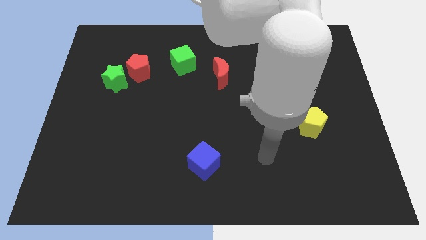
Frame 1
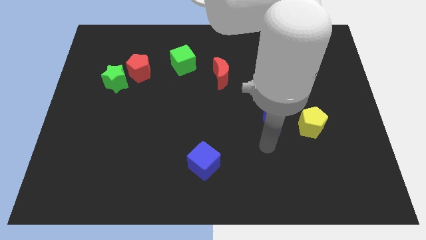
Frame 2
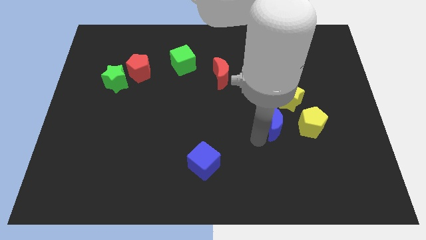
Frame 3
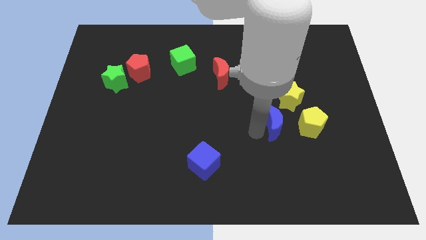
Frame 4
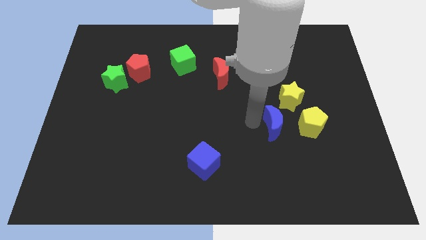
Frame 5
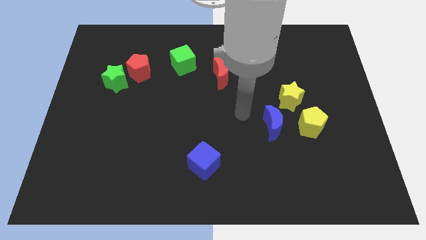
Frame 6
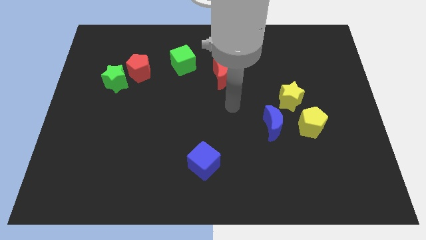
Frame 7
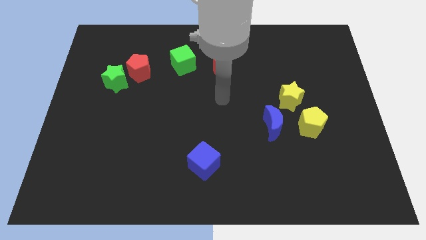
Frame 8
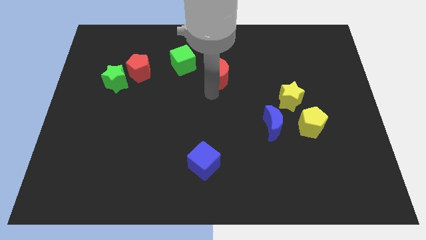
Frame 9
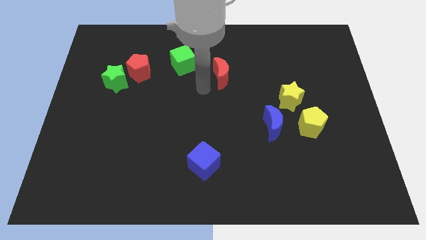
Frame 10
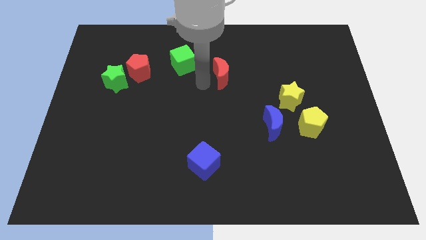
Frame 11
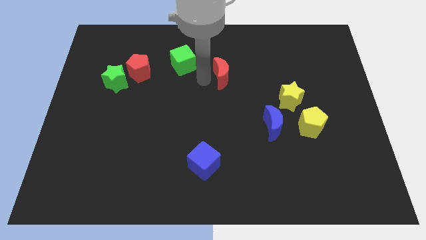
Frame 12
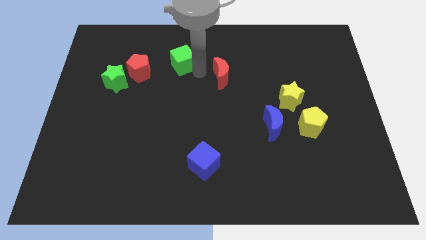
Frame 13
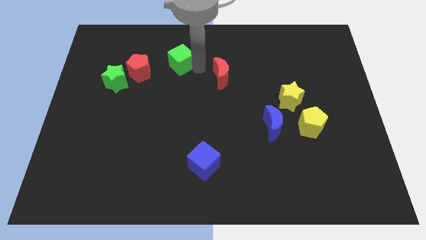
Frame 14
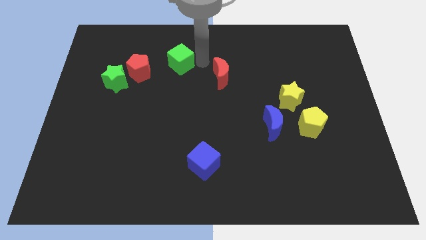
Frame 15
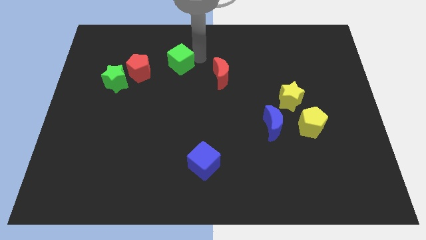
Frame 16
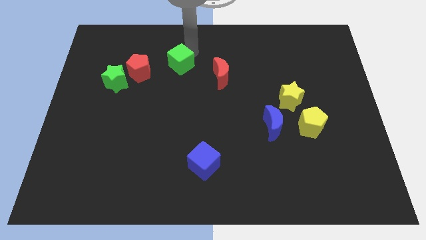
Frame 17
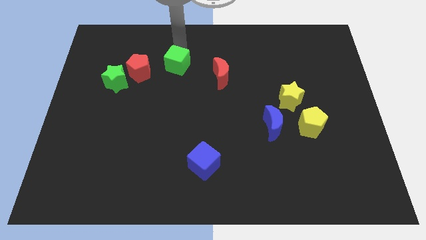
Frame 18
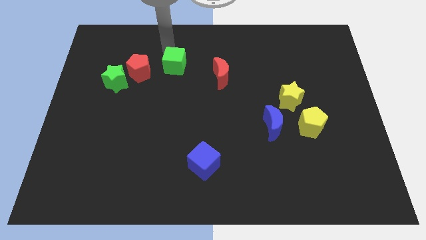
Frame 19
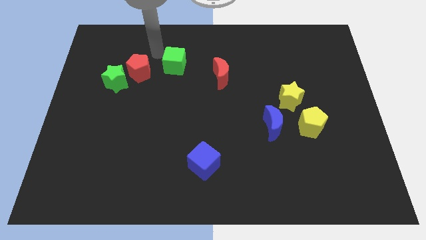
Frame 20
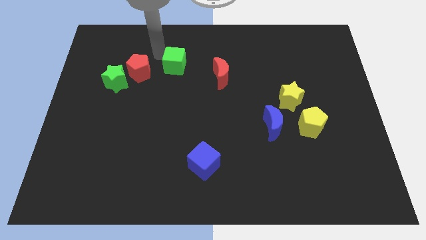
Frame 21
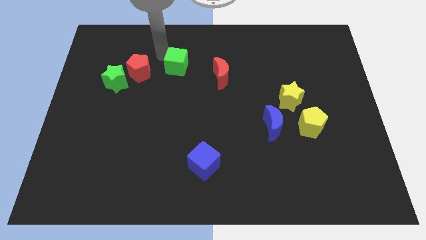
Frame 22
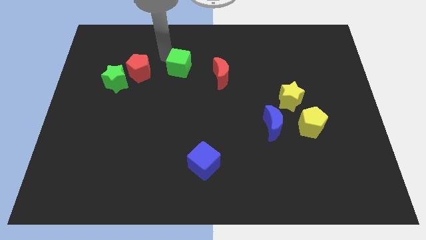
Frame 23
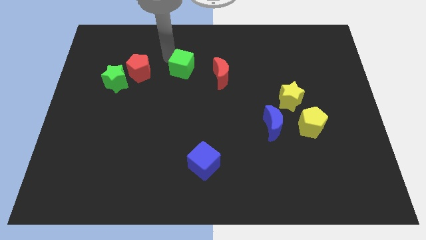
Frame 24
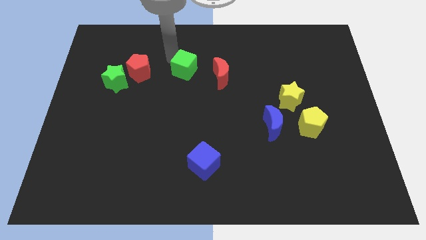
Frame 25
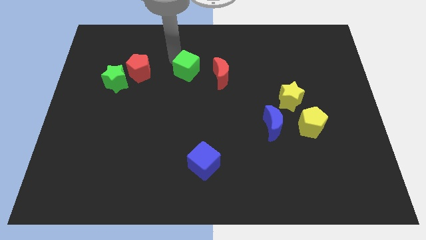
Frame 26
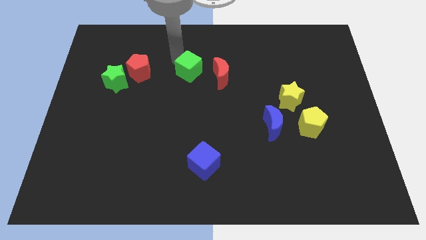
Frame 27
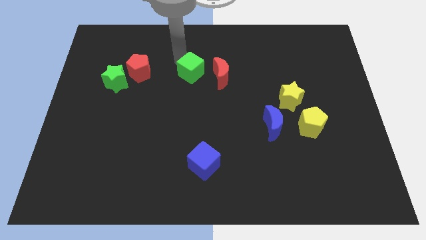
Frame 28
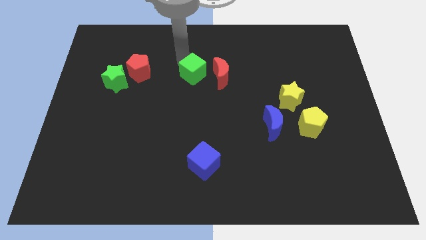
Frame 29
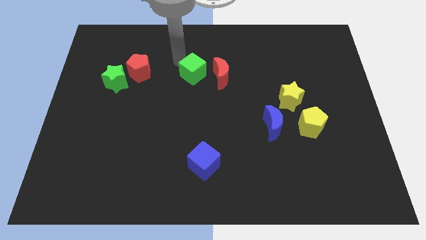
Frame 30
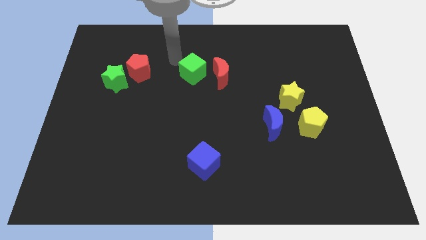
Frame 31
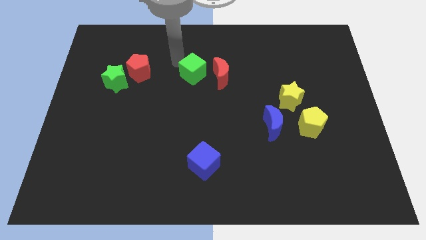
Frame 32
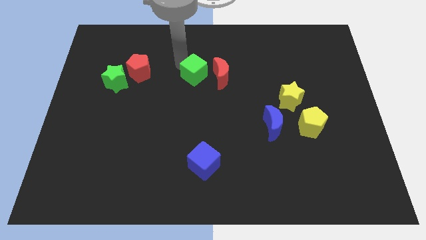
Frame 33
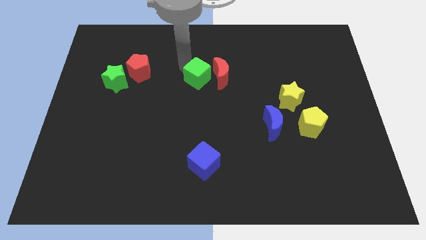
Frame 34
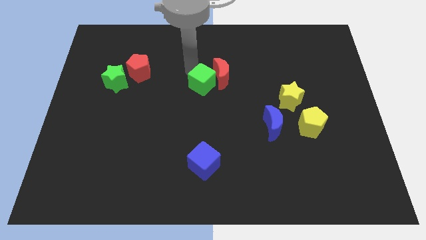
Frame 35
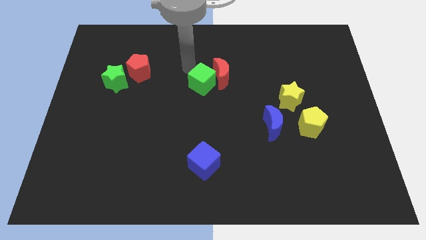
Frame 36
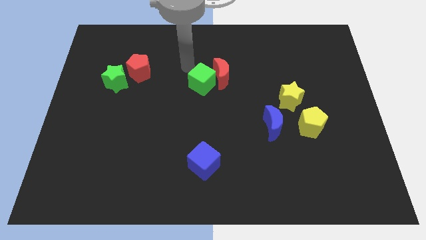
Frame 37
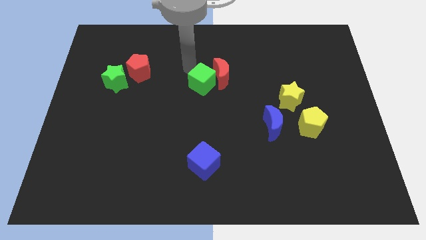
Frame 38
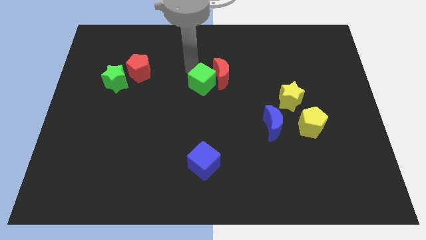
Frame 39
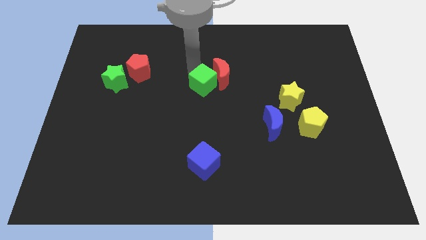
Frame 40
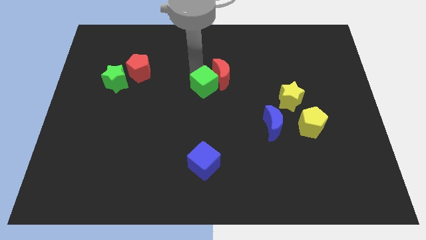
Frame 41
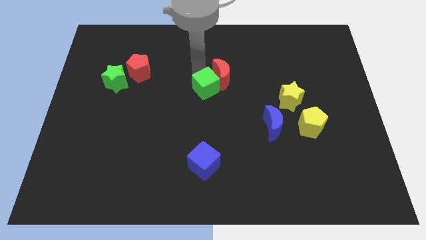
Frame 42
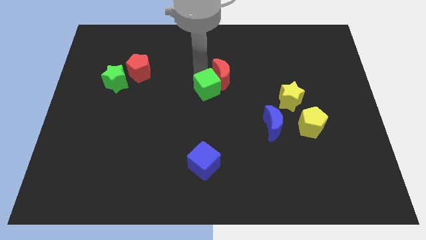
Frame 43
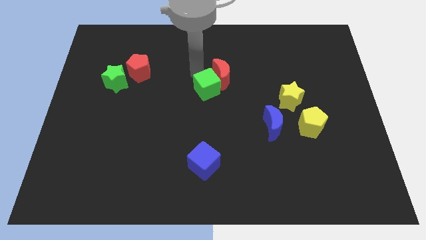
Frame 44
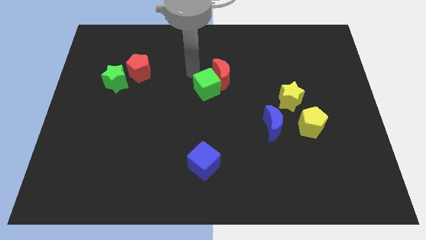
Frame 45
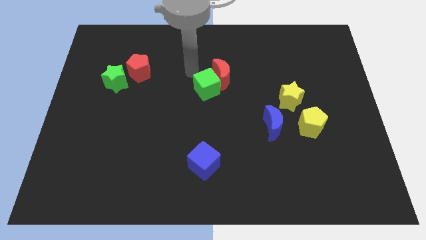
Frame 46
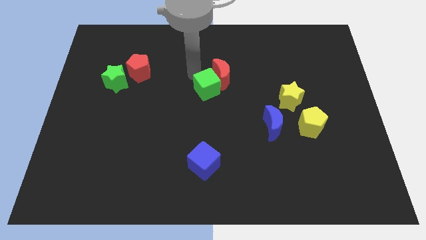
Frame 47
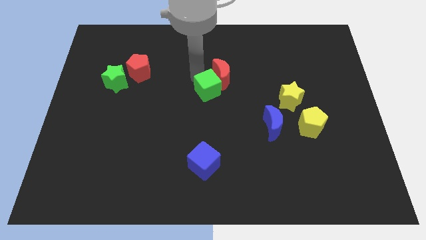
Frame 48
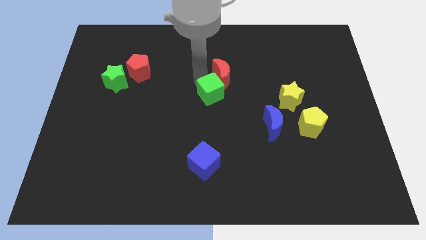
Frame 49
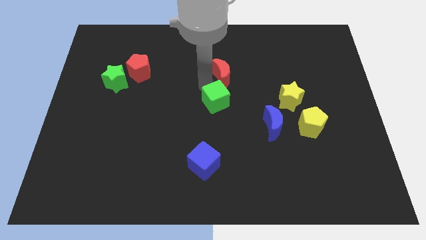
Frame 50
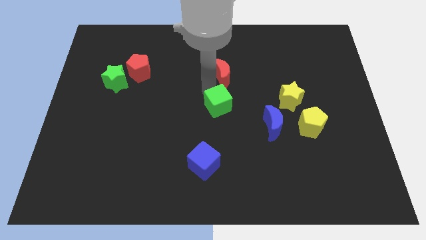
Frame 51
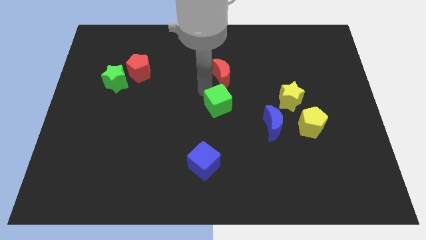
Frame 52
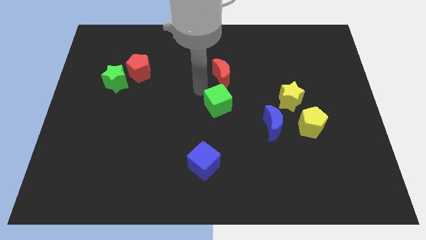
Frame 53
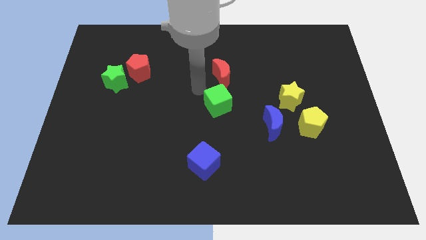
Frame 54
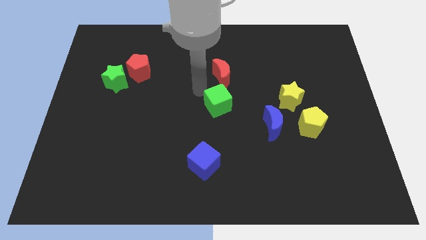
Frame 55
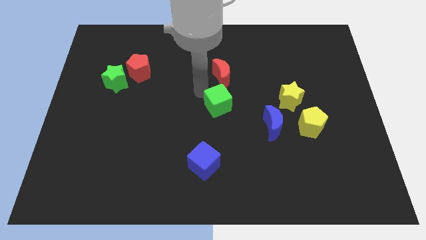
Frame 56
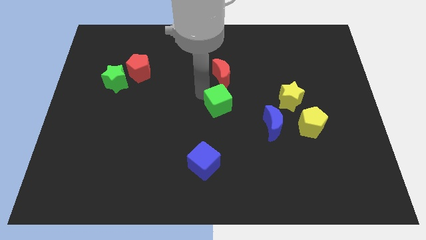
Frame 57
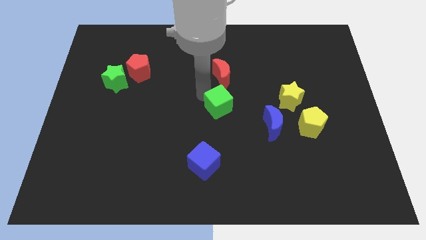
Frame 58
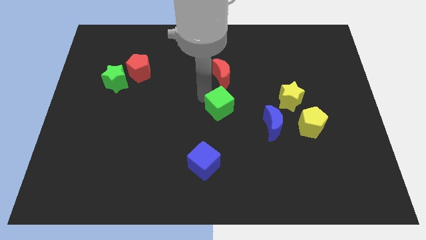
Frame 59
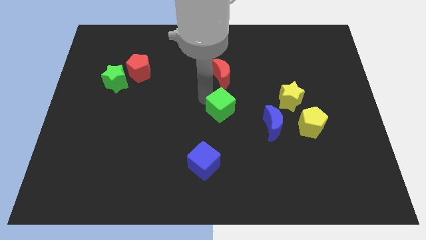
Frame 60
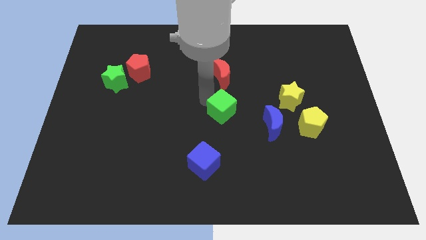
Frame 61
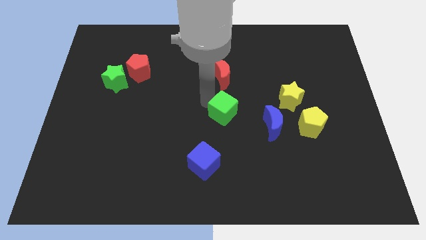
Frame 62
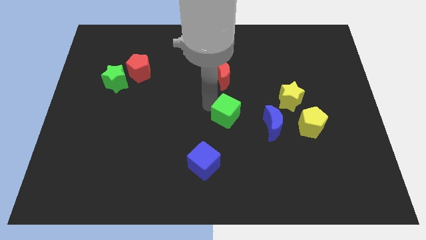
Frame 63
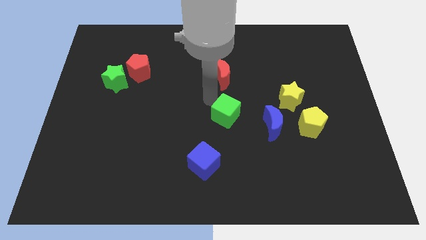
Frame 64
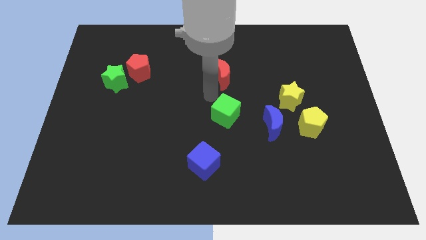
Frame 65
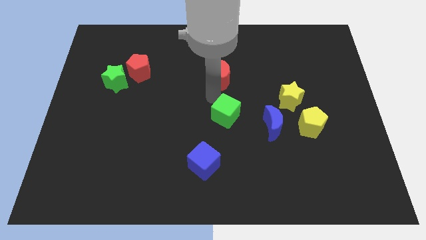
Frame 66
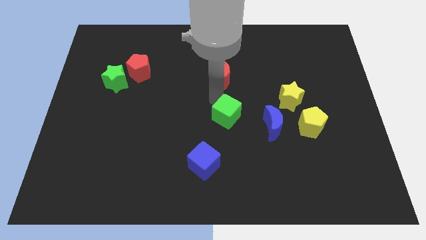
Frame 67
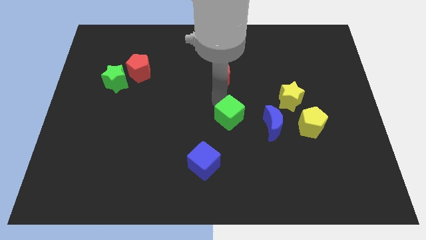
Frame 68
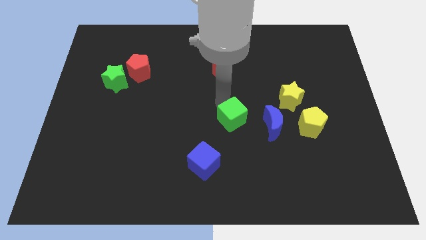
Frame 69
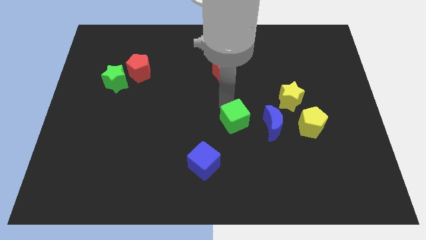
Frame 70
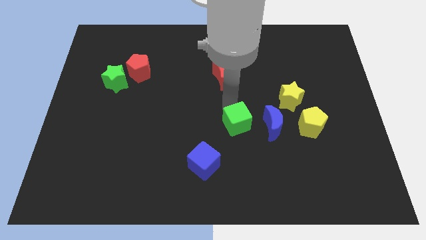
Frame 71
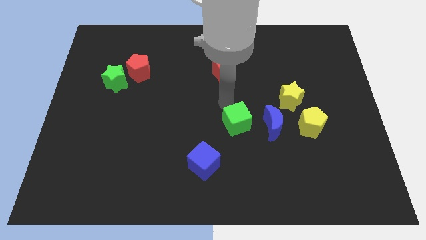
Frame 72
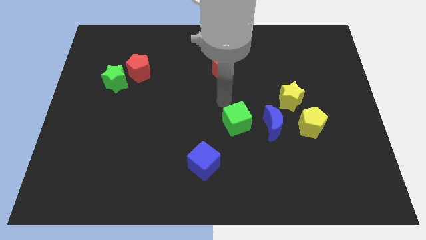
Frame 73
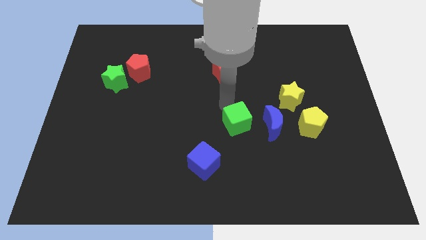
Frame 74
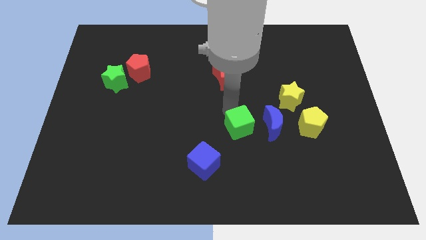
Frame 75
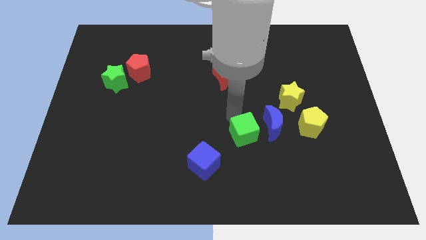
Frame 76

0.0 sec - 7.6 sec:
push the green cube diagonally down and to the left of the blue moon
